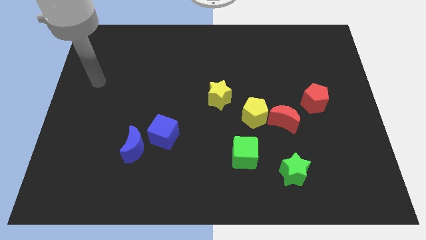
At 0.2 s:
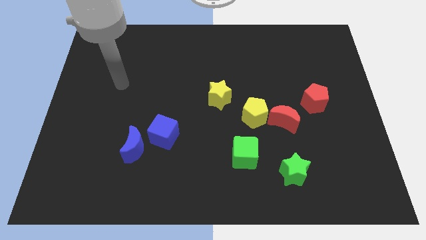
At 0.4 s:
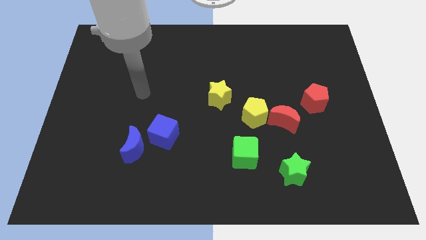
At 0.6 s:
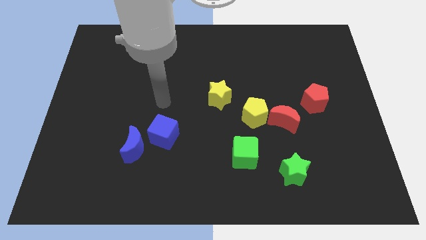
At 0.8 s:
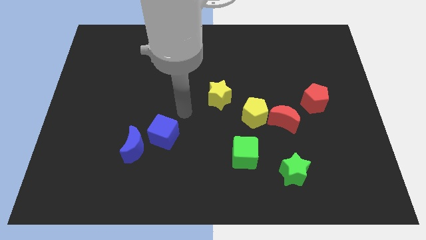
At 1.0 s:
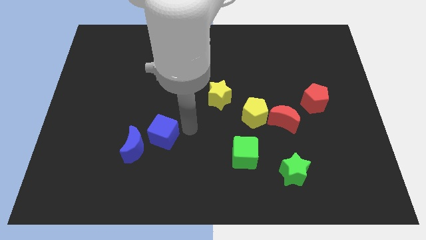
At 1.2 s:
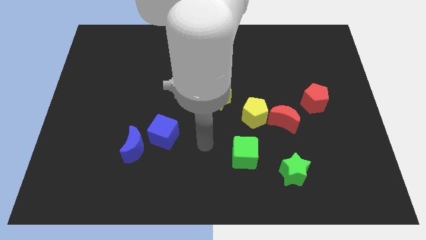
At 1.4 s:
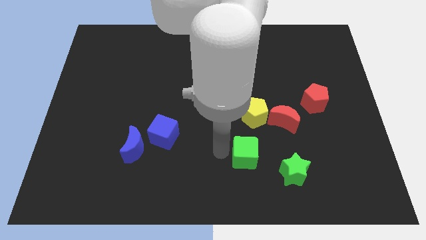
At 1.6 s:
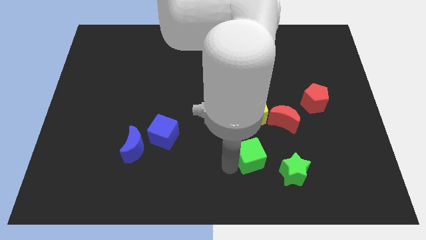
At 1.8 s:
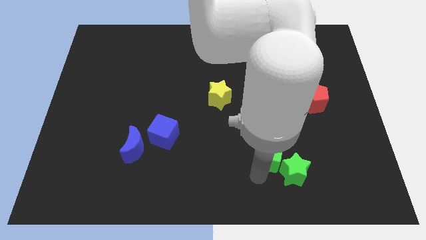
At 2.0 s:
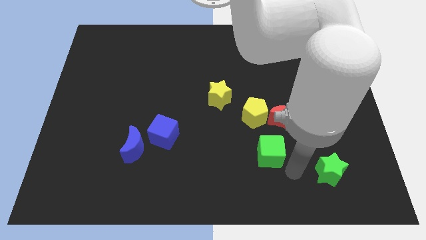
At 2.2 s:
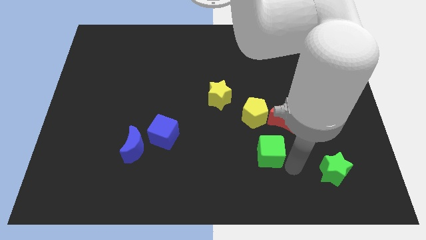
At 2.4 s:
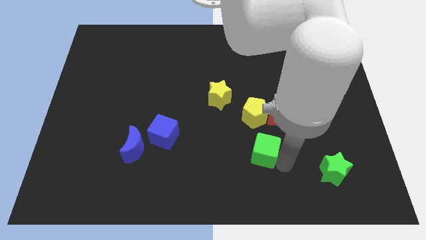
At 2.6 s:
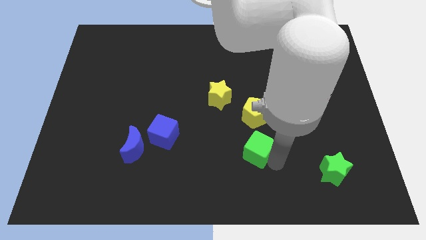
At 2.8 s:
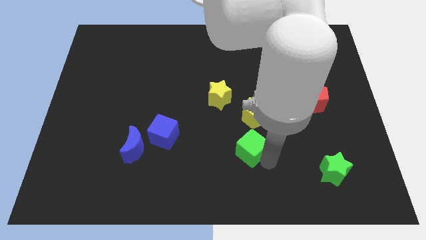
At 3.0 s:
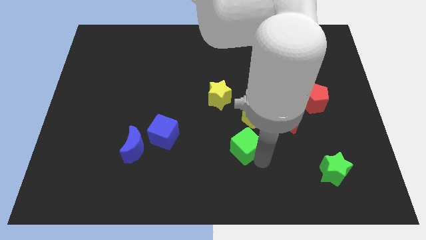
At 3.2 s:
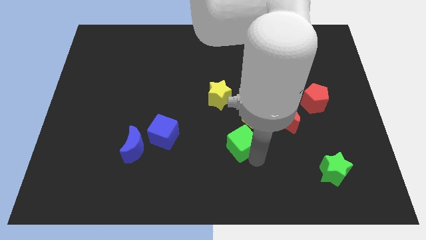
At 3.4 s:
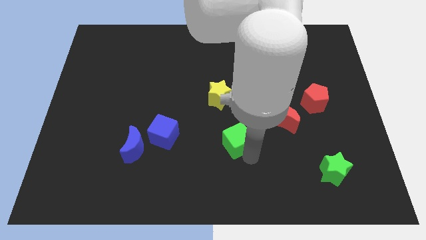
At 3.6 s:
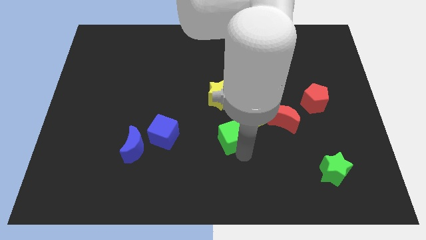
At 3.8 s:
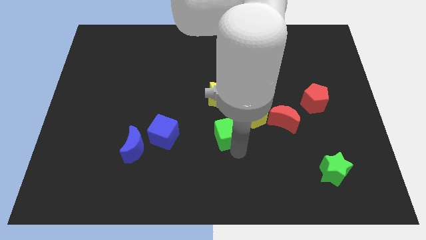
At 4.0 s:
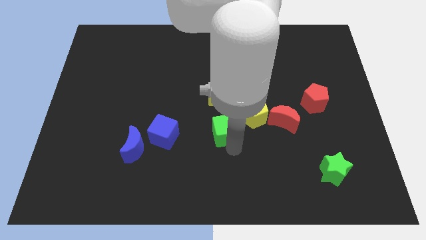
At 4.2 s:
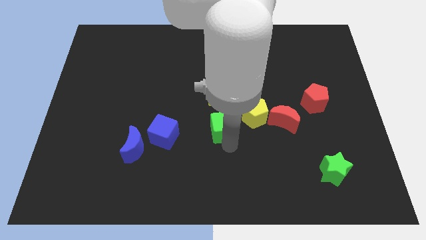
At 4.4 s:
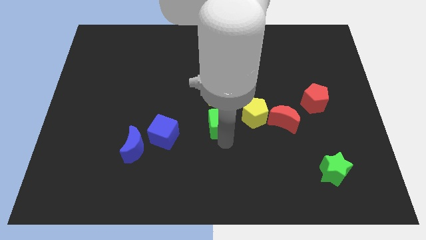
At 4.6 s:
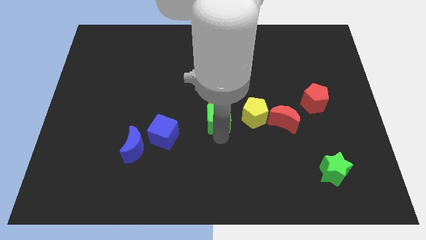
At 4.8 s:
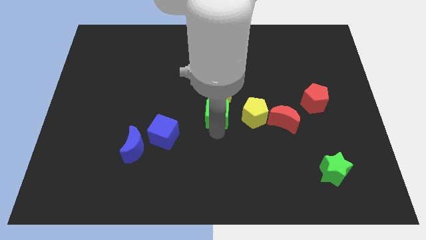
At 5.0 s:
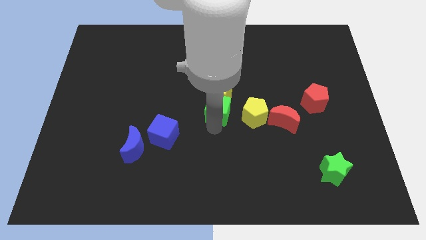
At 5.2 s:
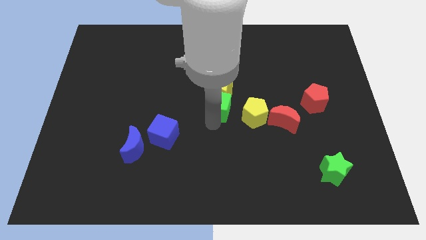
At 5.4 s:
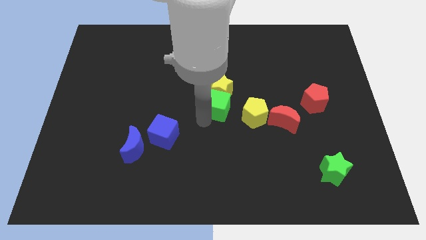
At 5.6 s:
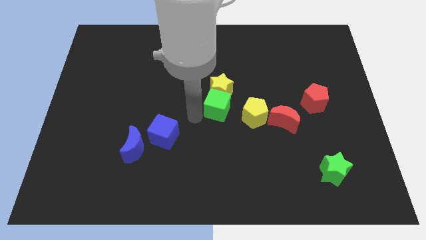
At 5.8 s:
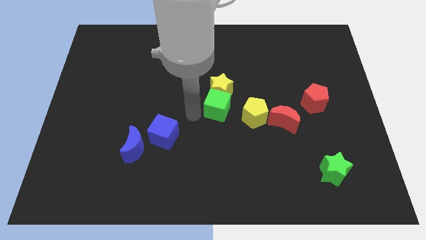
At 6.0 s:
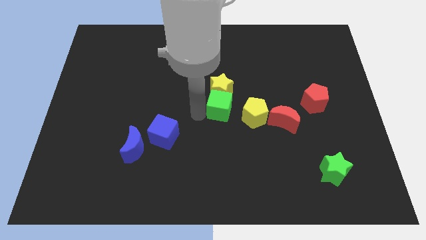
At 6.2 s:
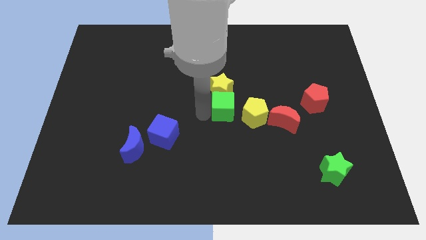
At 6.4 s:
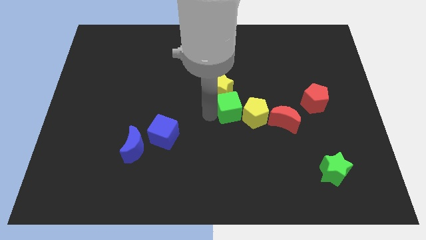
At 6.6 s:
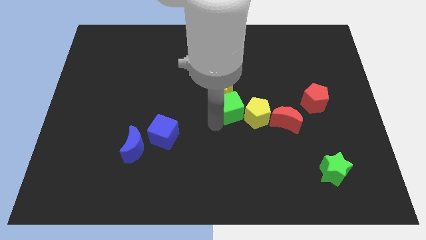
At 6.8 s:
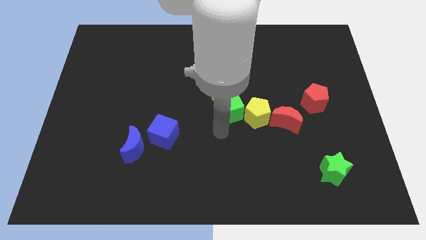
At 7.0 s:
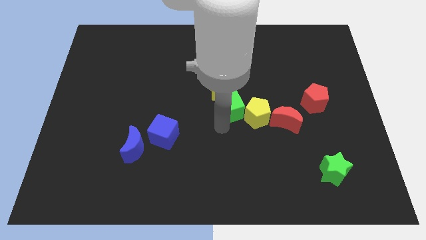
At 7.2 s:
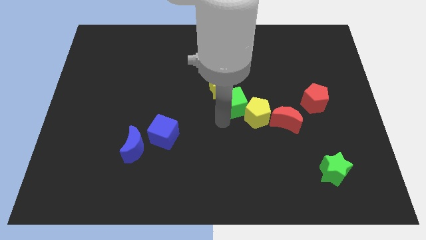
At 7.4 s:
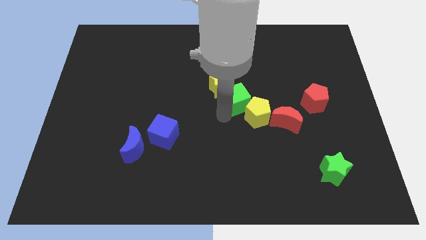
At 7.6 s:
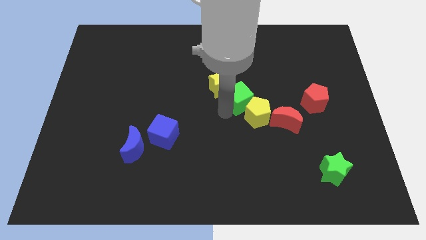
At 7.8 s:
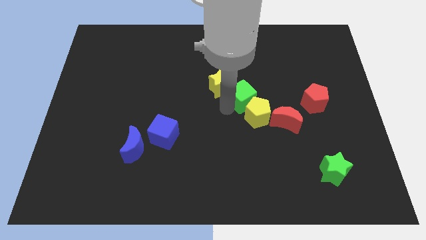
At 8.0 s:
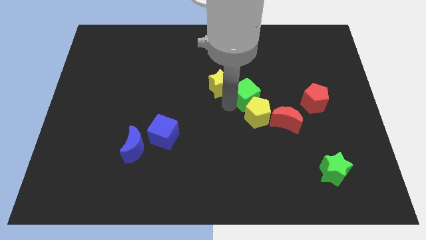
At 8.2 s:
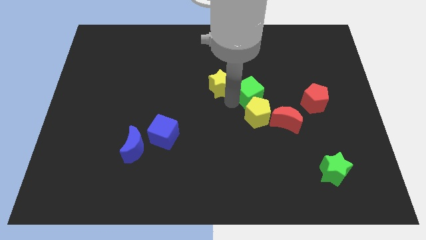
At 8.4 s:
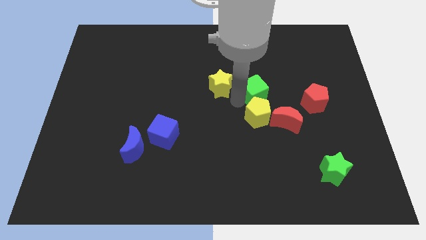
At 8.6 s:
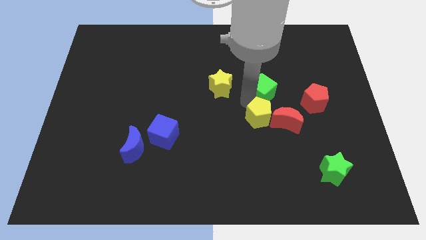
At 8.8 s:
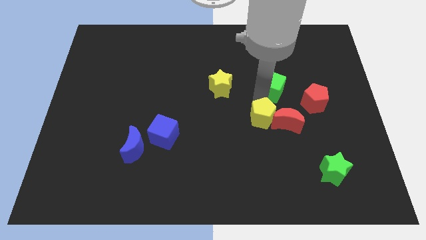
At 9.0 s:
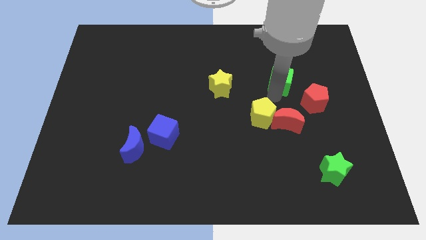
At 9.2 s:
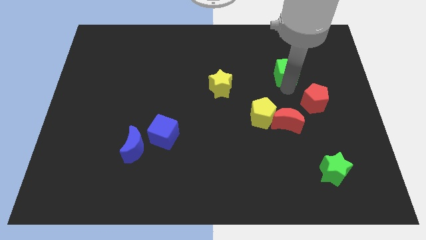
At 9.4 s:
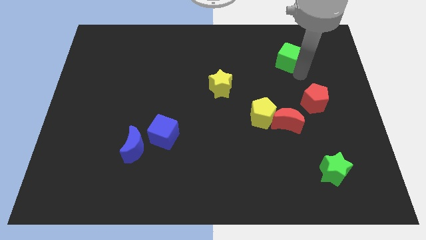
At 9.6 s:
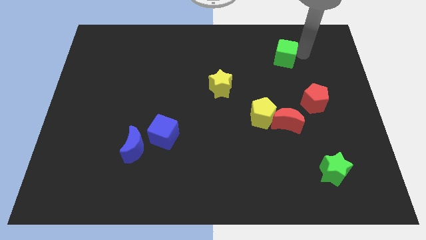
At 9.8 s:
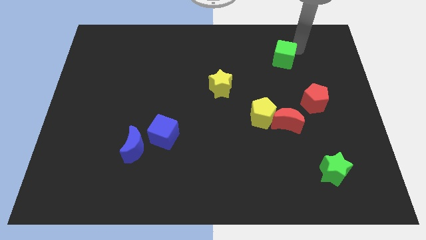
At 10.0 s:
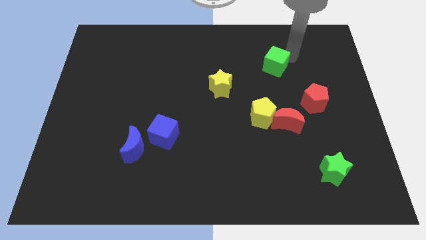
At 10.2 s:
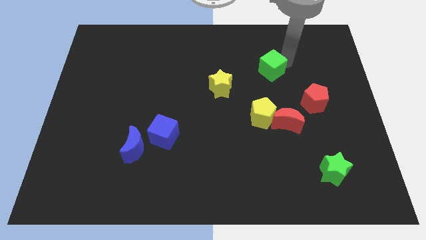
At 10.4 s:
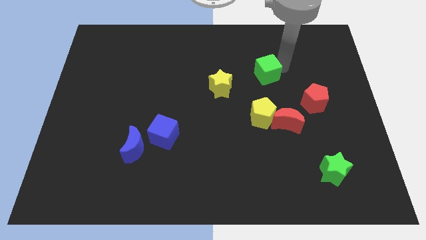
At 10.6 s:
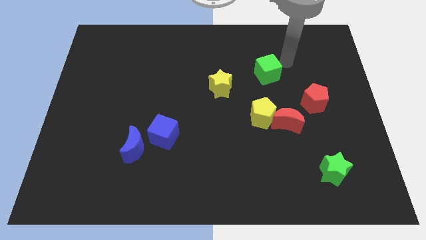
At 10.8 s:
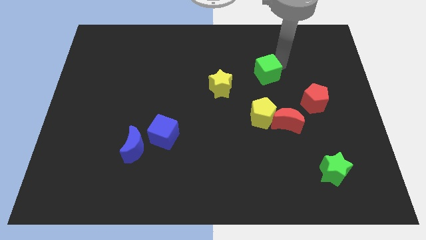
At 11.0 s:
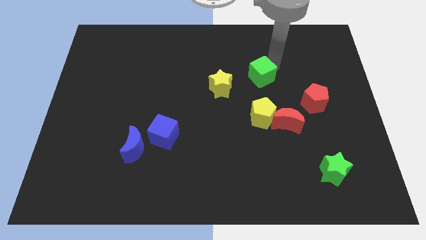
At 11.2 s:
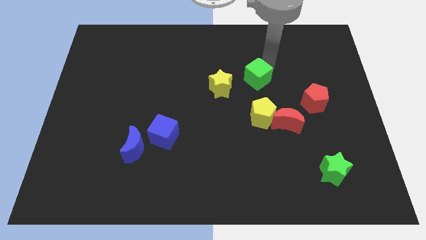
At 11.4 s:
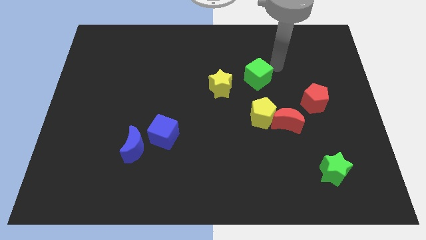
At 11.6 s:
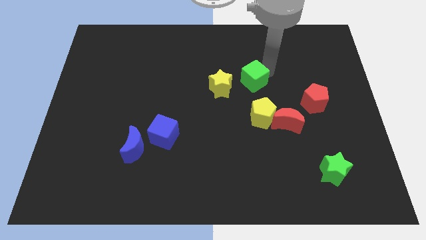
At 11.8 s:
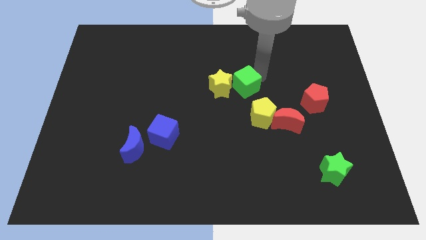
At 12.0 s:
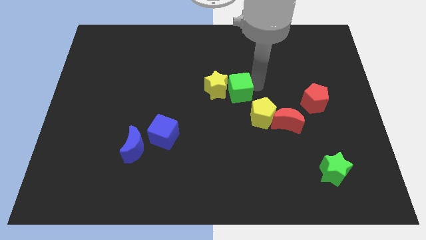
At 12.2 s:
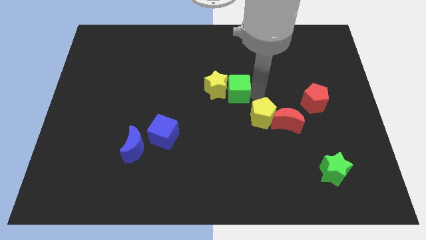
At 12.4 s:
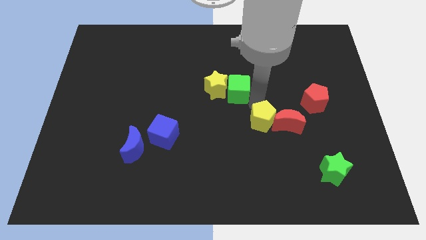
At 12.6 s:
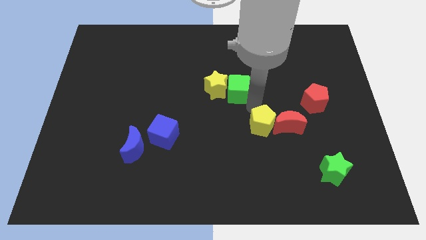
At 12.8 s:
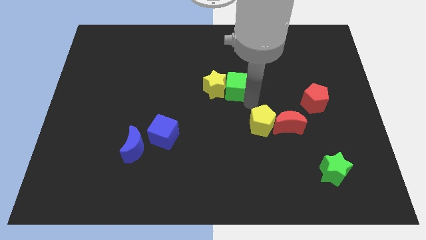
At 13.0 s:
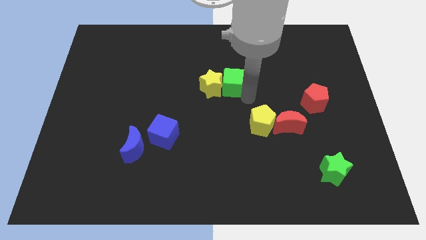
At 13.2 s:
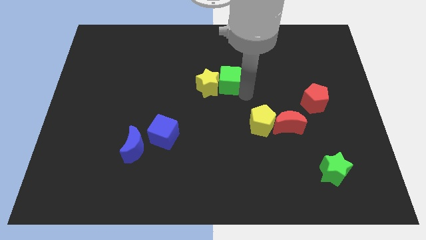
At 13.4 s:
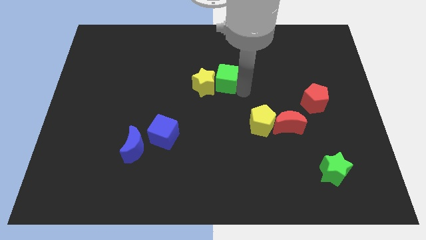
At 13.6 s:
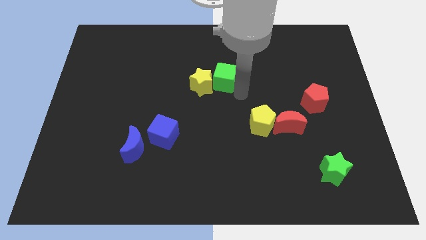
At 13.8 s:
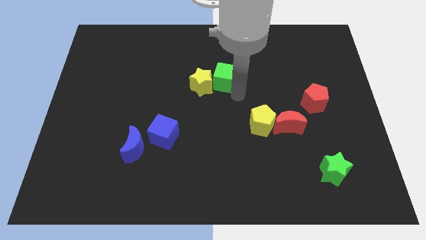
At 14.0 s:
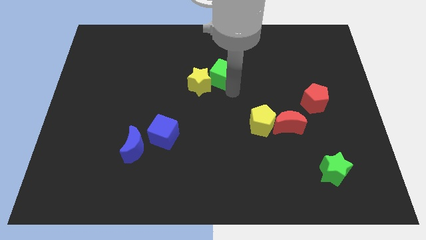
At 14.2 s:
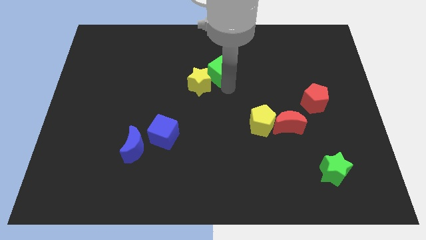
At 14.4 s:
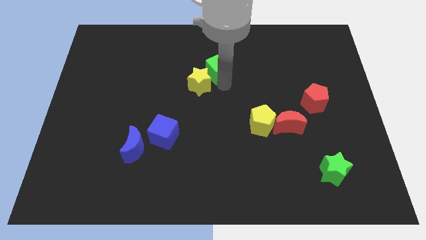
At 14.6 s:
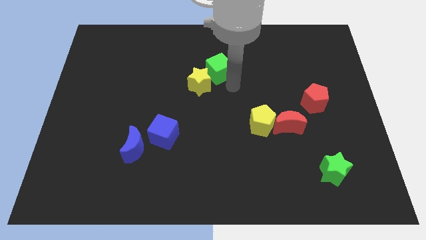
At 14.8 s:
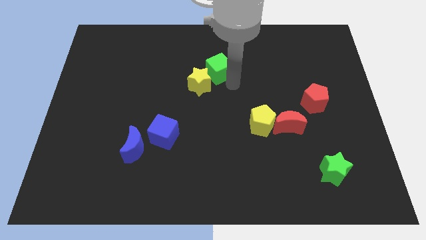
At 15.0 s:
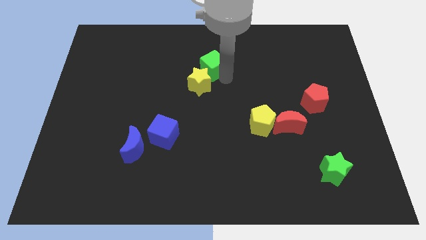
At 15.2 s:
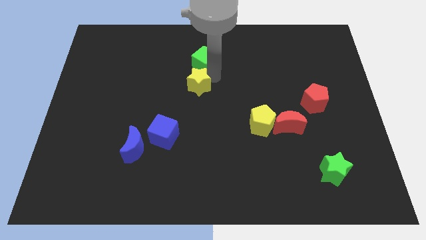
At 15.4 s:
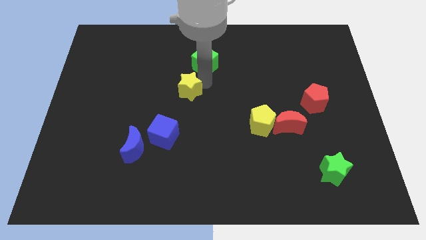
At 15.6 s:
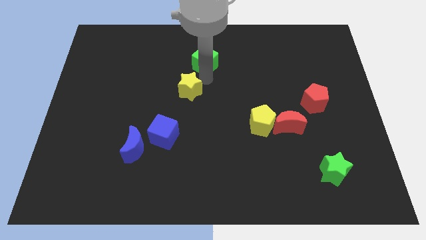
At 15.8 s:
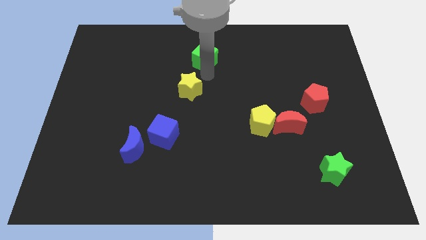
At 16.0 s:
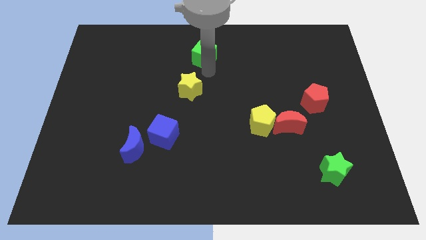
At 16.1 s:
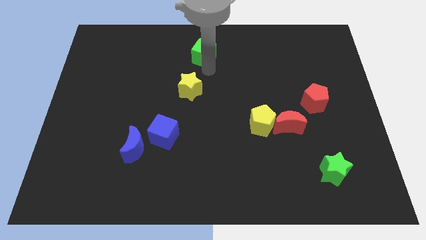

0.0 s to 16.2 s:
push the green cube to the towards your base
